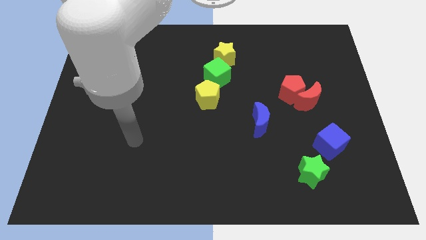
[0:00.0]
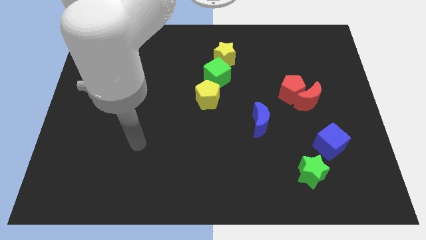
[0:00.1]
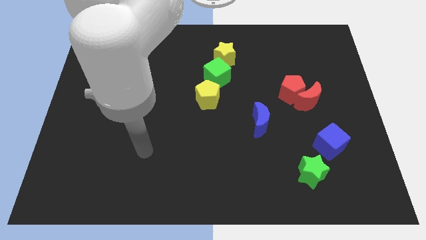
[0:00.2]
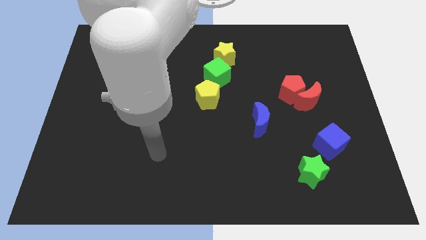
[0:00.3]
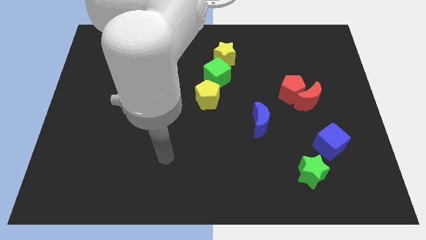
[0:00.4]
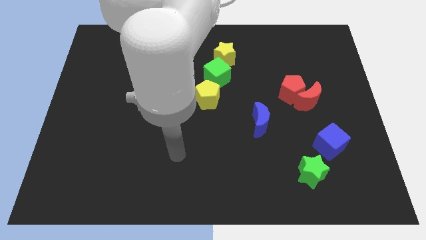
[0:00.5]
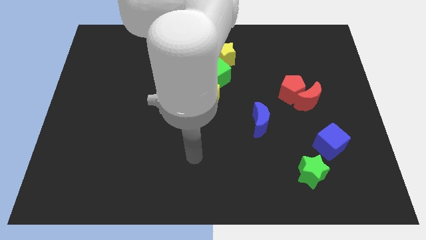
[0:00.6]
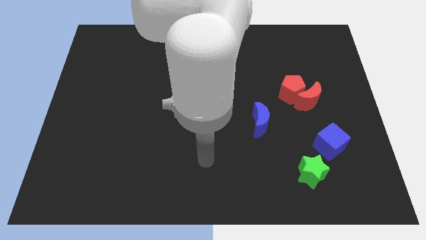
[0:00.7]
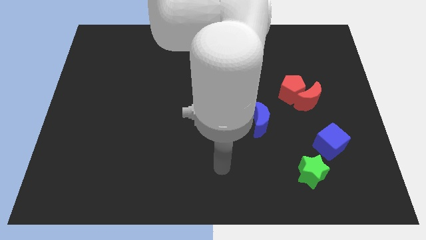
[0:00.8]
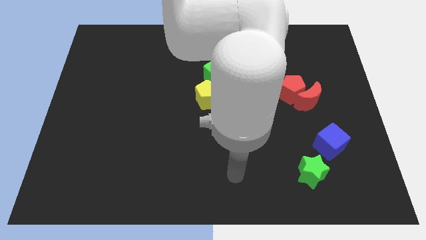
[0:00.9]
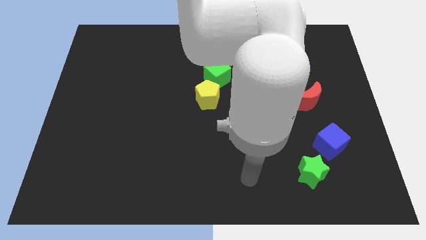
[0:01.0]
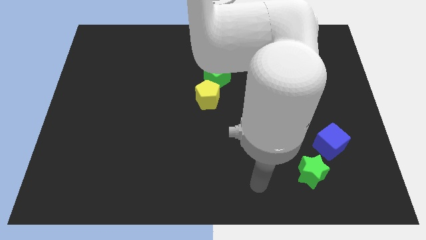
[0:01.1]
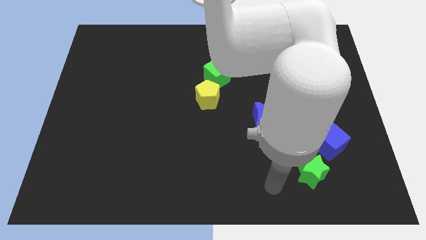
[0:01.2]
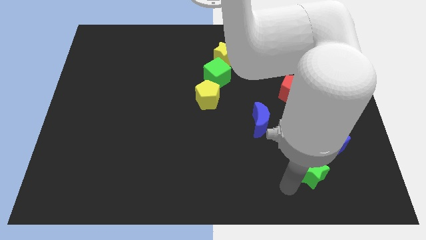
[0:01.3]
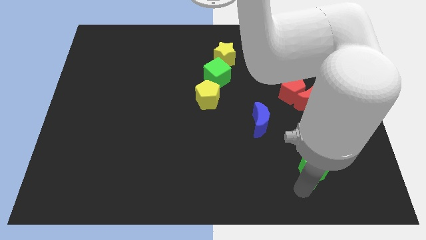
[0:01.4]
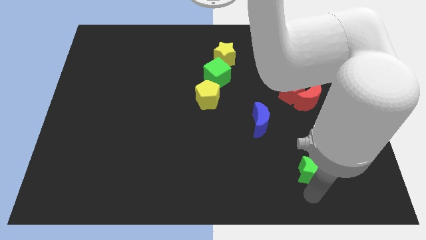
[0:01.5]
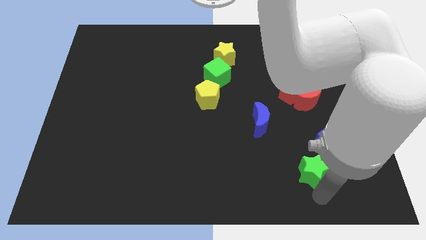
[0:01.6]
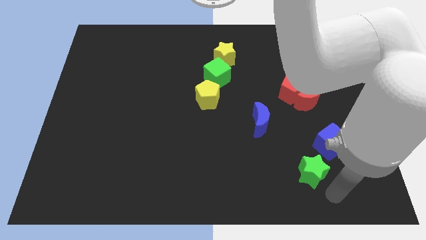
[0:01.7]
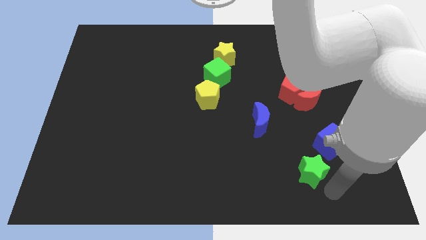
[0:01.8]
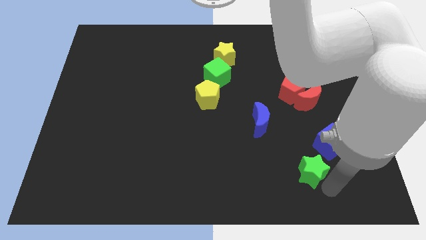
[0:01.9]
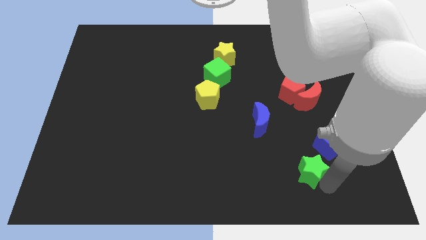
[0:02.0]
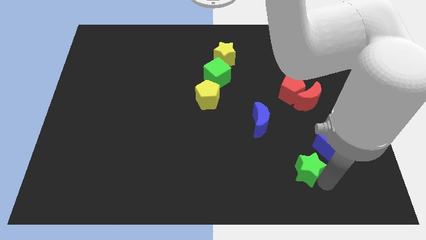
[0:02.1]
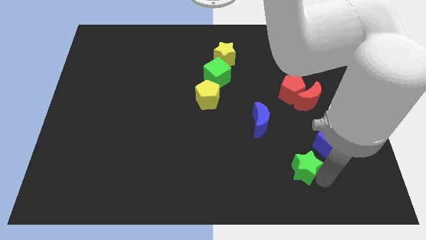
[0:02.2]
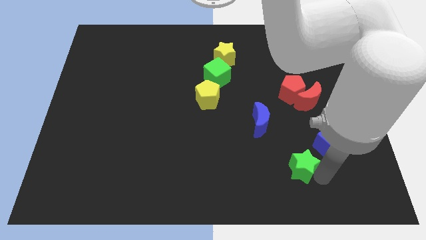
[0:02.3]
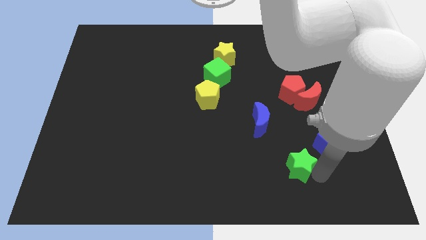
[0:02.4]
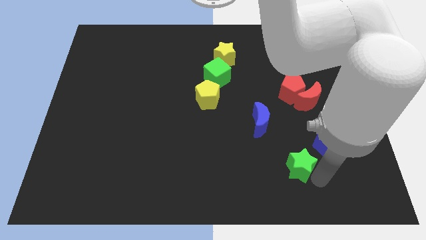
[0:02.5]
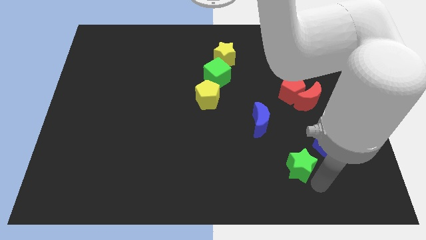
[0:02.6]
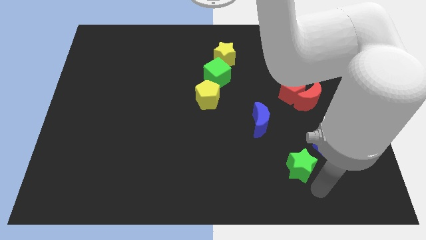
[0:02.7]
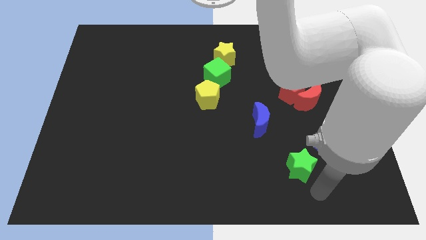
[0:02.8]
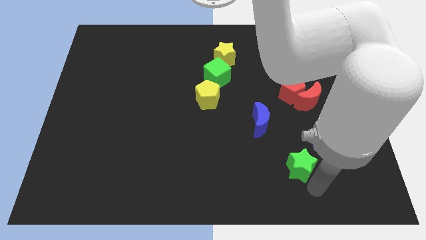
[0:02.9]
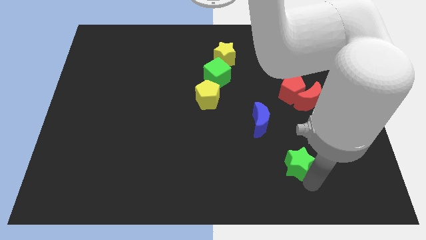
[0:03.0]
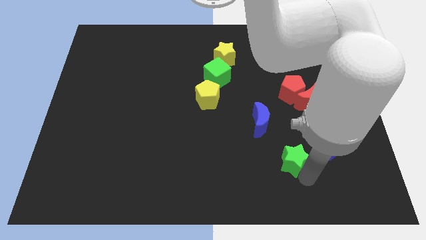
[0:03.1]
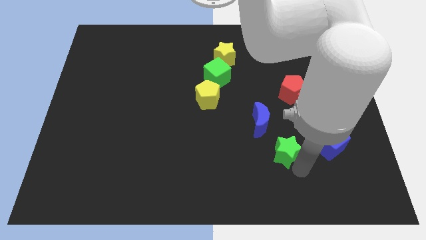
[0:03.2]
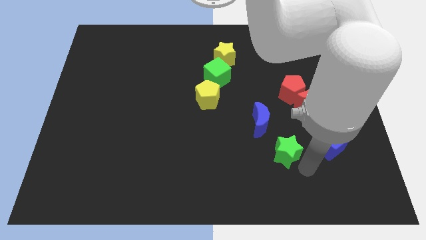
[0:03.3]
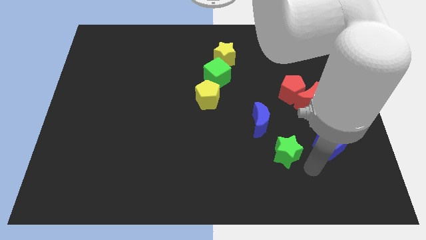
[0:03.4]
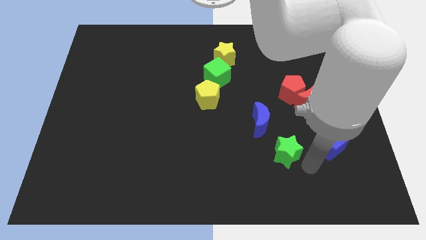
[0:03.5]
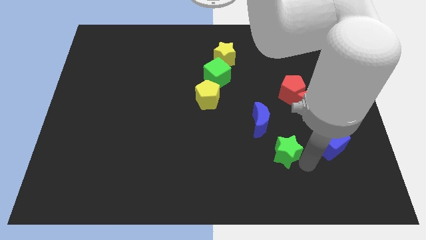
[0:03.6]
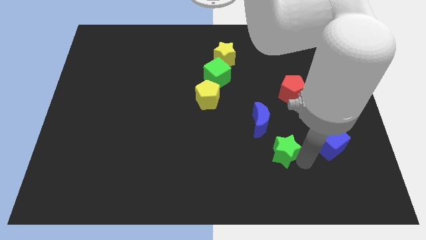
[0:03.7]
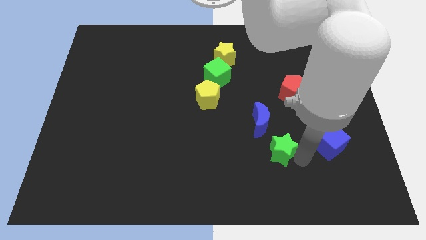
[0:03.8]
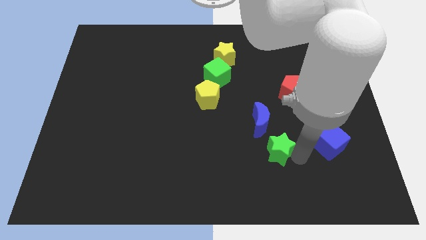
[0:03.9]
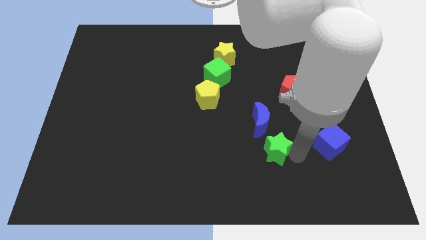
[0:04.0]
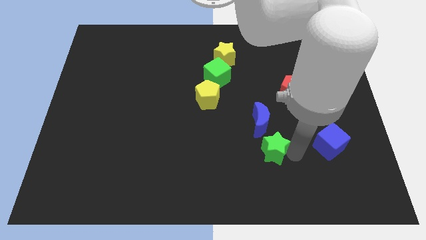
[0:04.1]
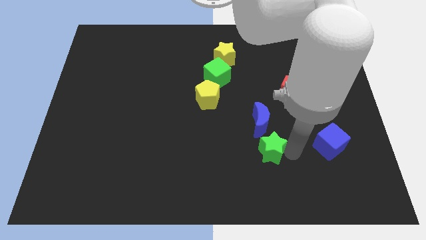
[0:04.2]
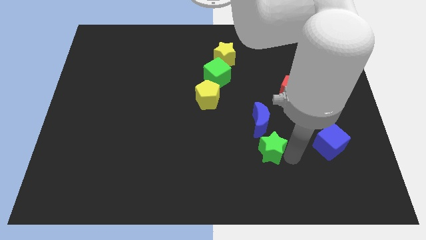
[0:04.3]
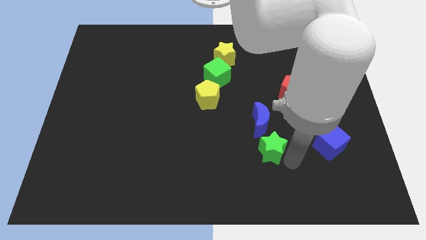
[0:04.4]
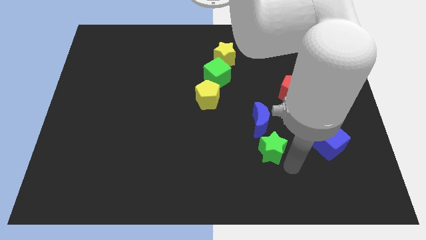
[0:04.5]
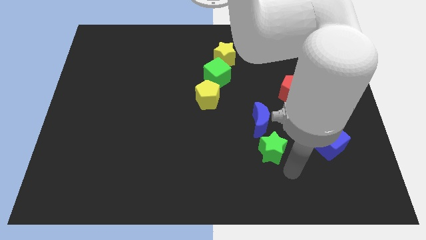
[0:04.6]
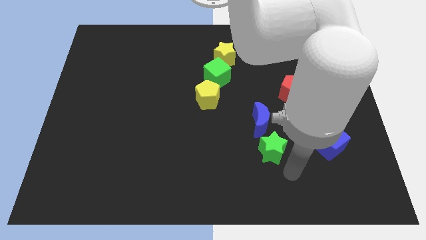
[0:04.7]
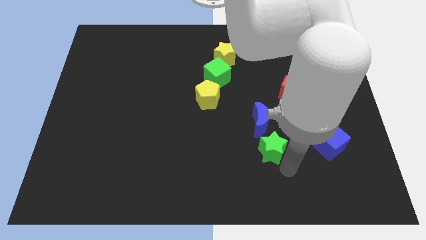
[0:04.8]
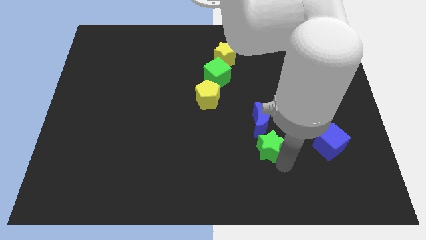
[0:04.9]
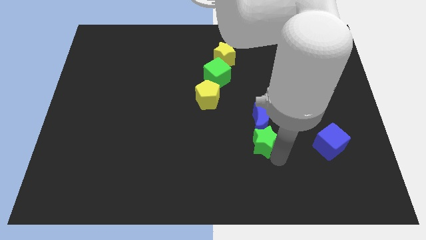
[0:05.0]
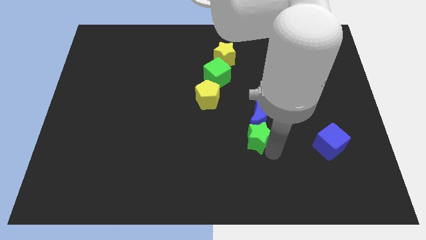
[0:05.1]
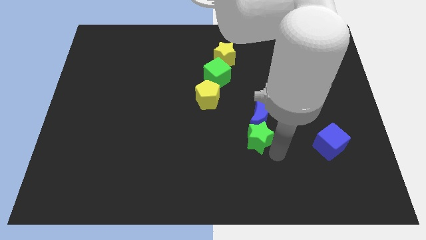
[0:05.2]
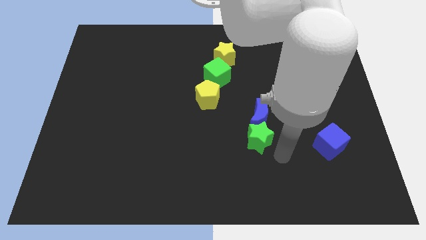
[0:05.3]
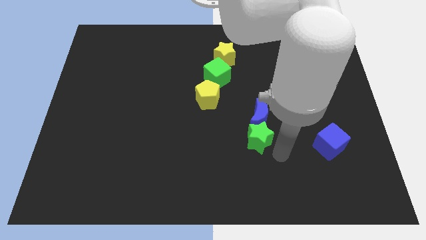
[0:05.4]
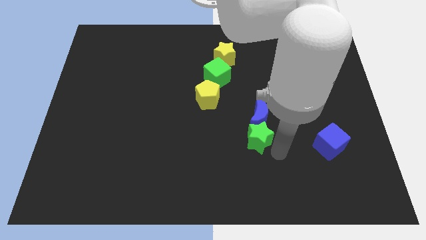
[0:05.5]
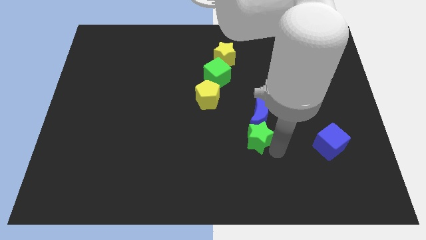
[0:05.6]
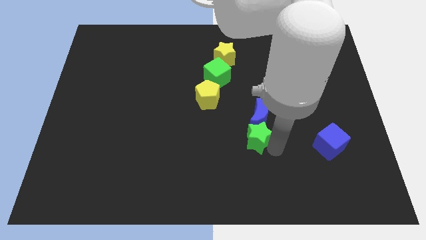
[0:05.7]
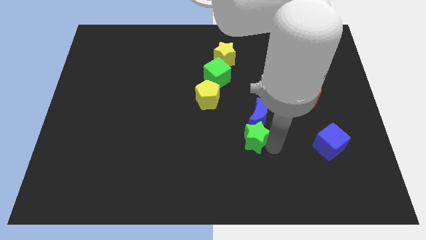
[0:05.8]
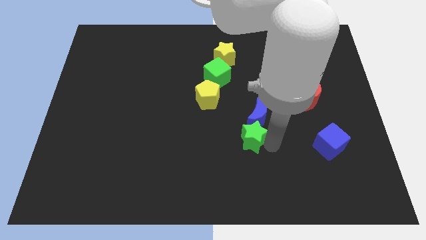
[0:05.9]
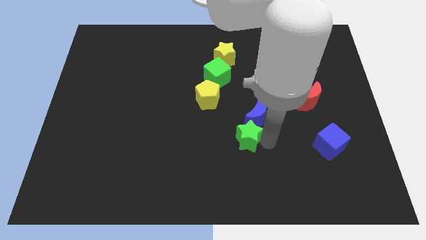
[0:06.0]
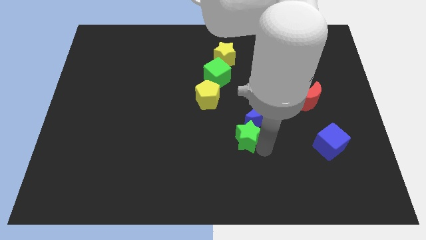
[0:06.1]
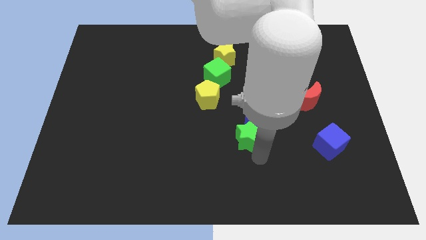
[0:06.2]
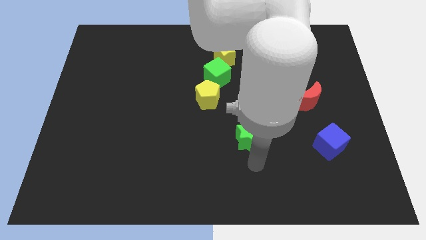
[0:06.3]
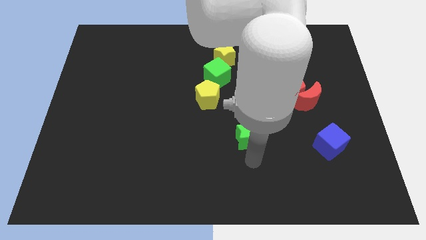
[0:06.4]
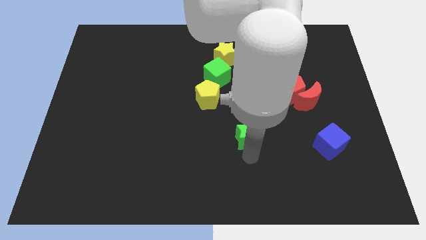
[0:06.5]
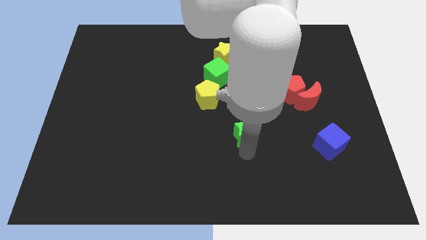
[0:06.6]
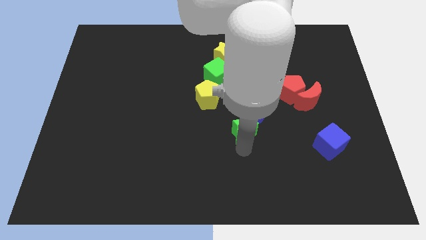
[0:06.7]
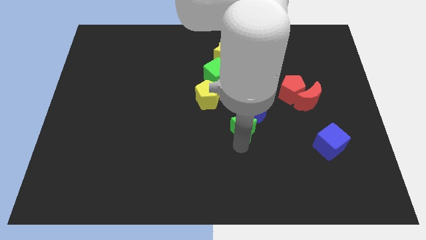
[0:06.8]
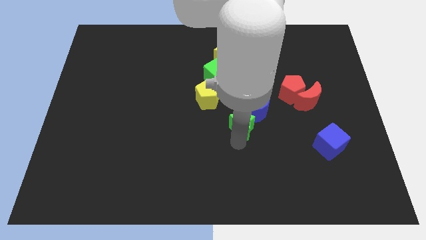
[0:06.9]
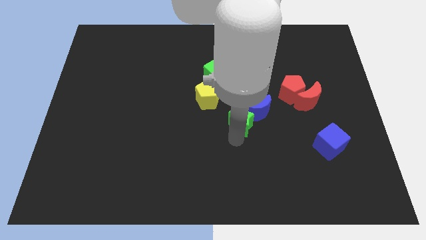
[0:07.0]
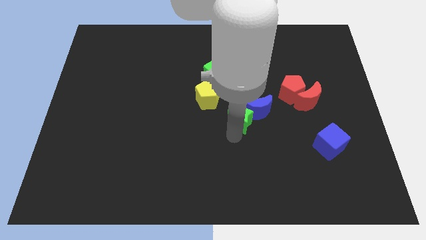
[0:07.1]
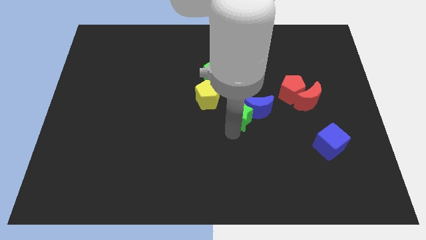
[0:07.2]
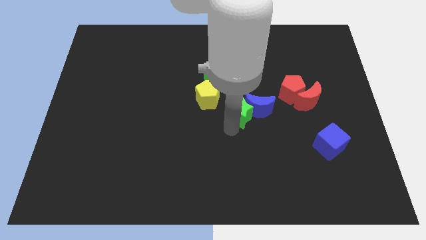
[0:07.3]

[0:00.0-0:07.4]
slide the green star to the top left side of the blue moon
